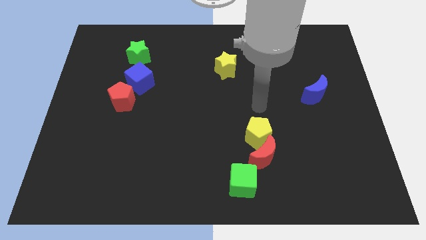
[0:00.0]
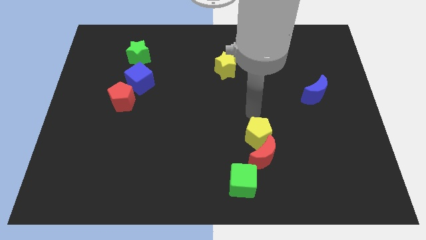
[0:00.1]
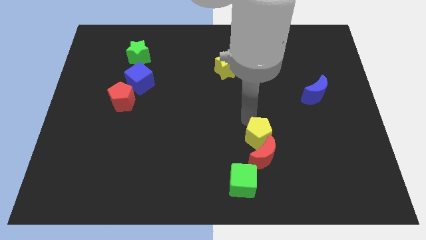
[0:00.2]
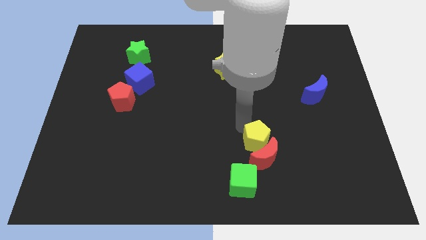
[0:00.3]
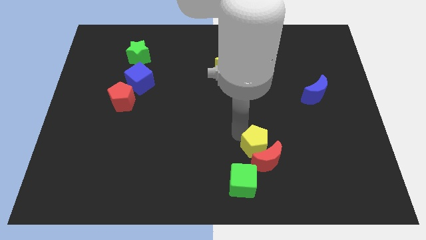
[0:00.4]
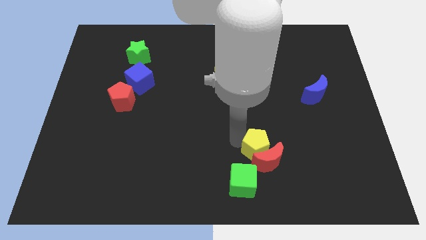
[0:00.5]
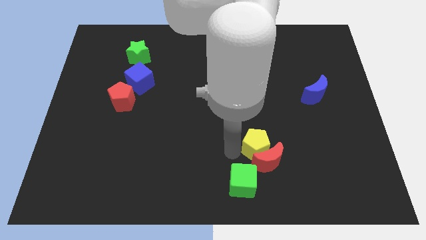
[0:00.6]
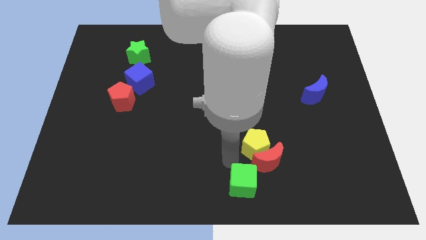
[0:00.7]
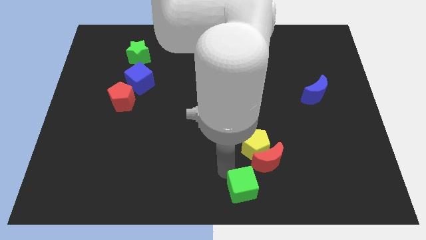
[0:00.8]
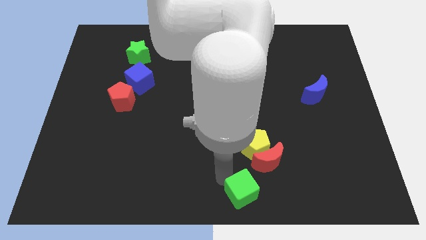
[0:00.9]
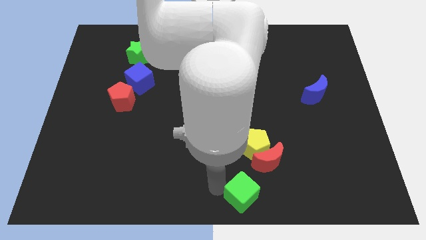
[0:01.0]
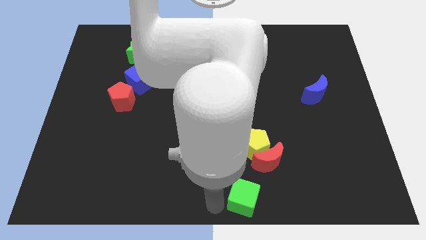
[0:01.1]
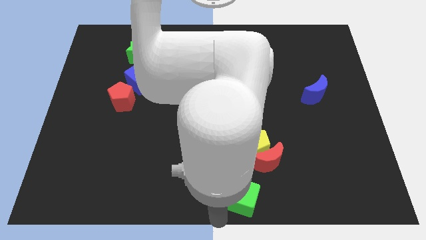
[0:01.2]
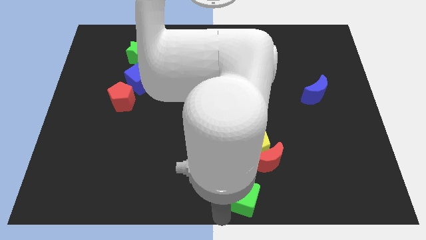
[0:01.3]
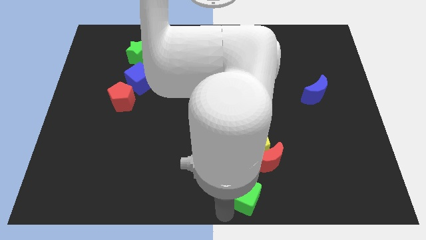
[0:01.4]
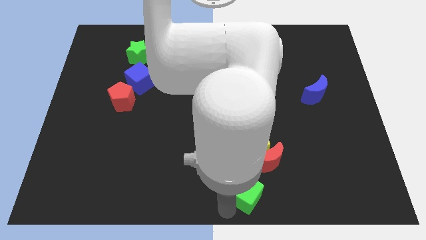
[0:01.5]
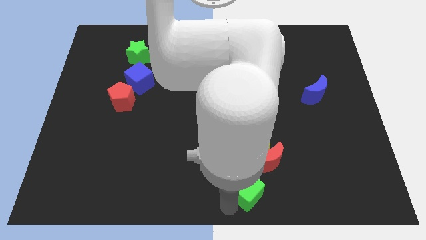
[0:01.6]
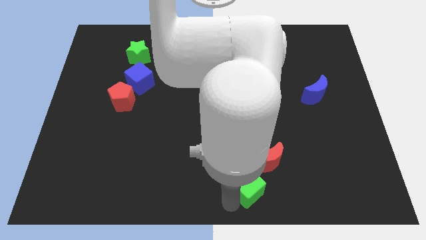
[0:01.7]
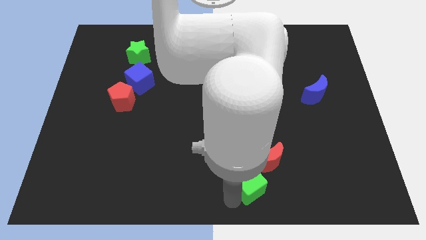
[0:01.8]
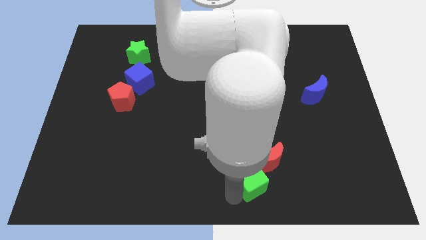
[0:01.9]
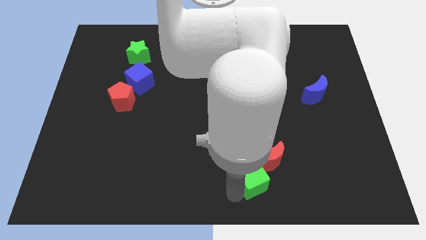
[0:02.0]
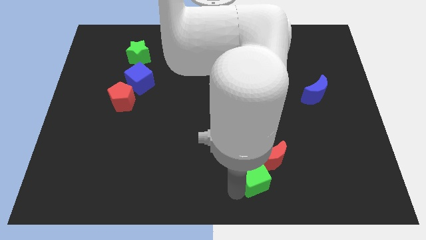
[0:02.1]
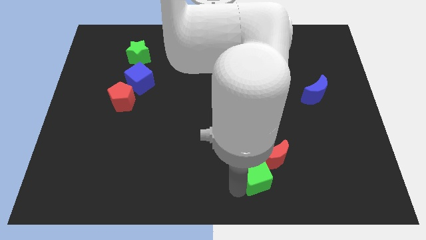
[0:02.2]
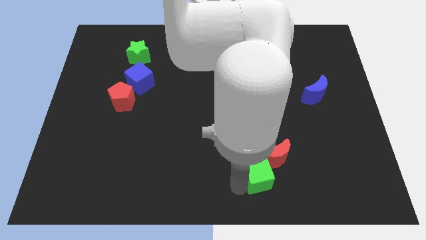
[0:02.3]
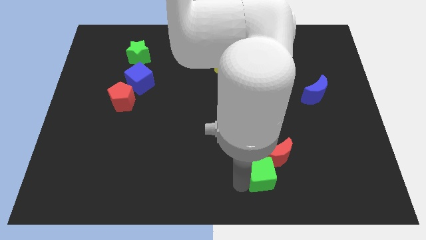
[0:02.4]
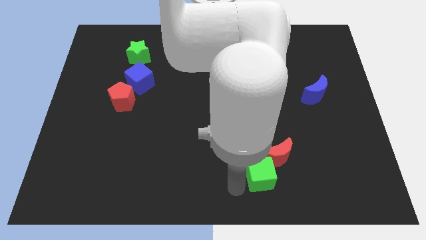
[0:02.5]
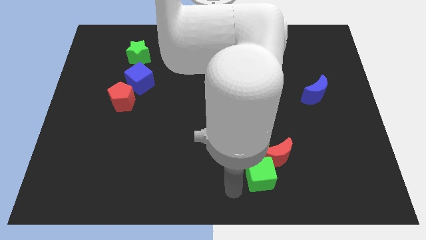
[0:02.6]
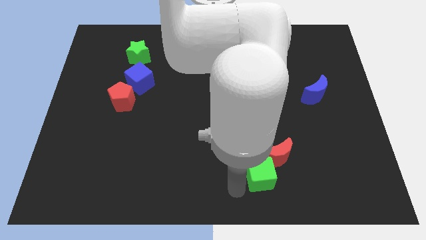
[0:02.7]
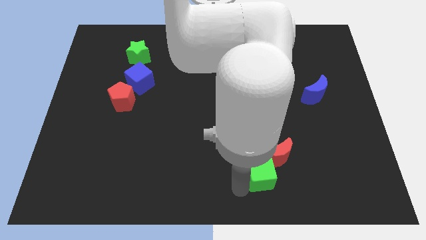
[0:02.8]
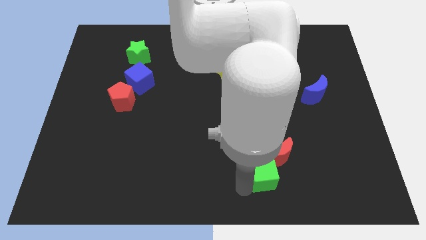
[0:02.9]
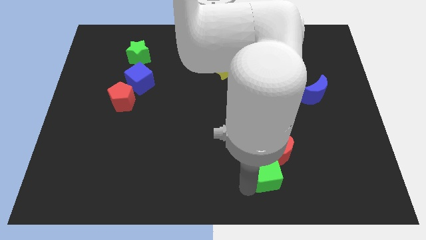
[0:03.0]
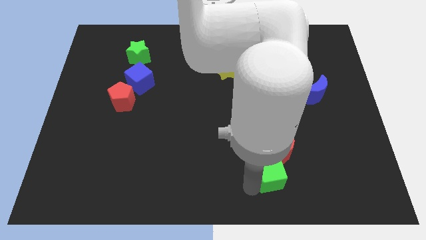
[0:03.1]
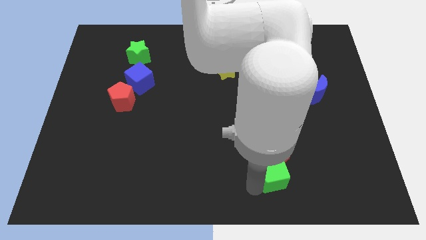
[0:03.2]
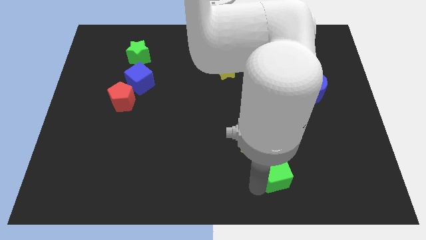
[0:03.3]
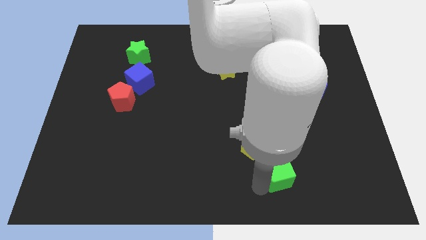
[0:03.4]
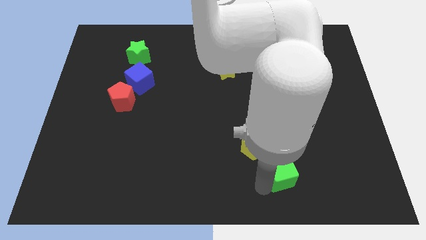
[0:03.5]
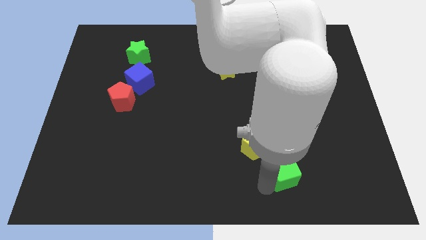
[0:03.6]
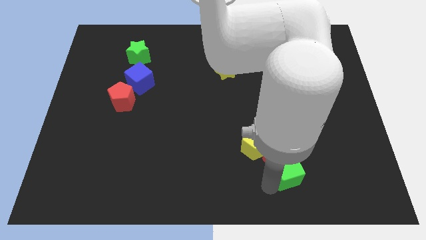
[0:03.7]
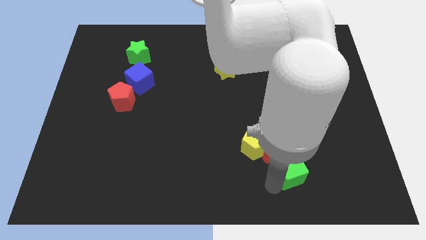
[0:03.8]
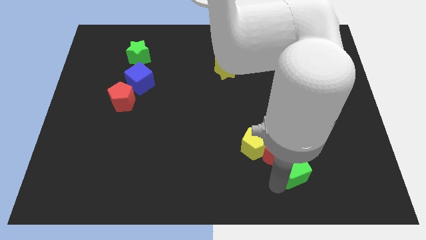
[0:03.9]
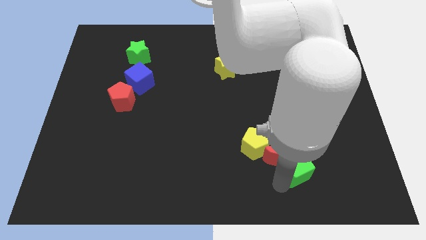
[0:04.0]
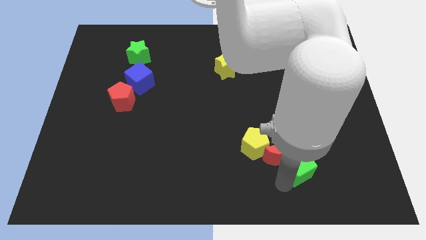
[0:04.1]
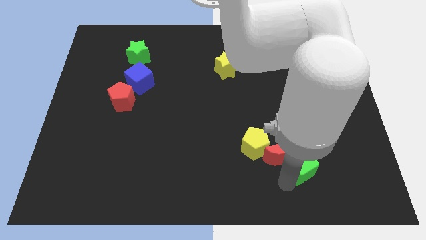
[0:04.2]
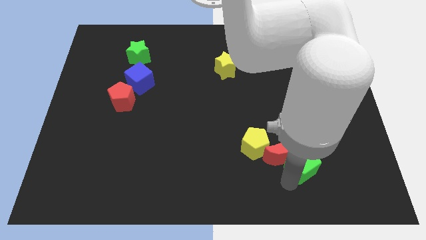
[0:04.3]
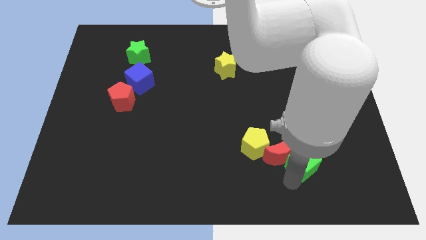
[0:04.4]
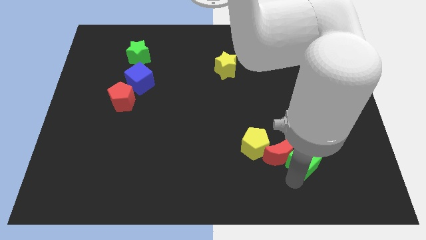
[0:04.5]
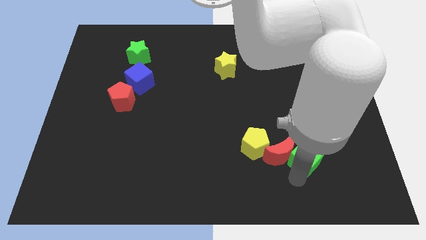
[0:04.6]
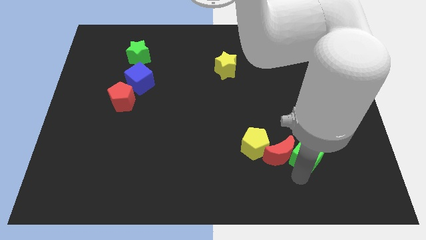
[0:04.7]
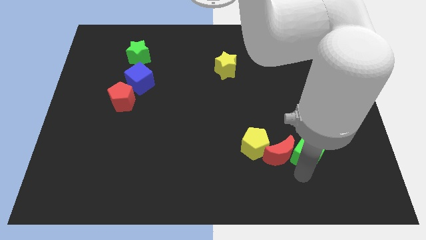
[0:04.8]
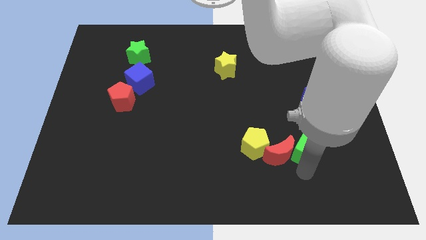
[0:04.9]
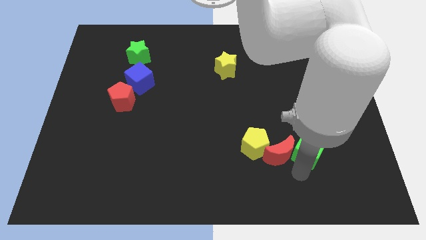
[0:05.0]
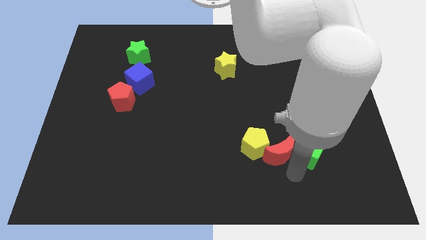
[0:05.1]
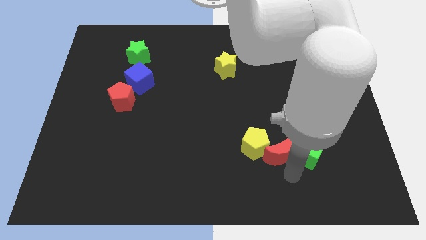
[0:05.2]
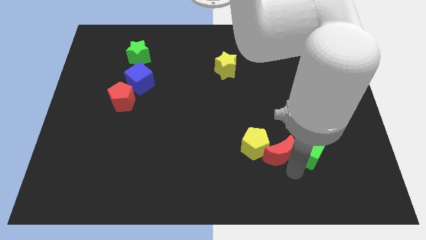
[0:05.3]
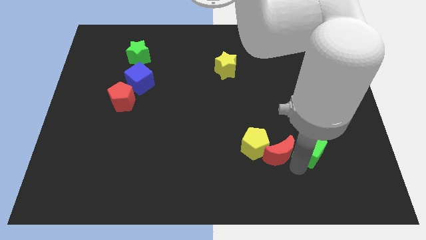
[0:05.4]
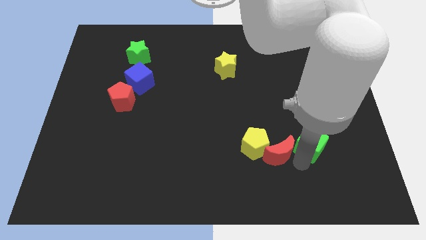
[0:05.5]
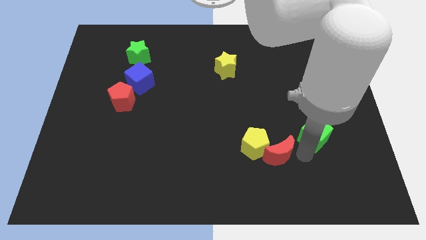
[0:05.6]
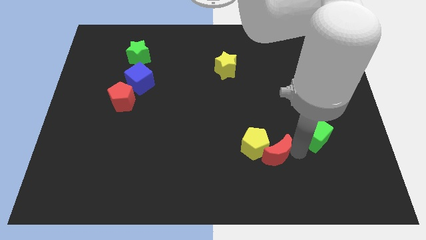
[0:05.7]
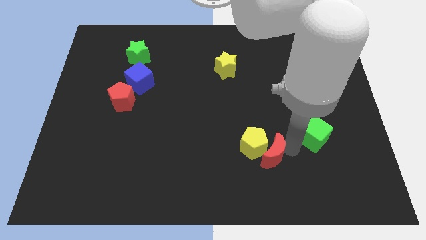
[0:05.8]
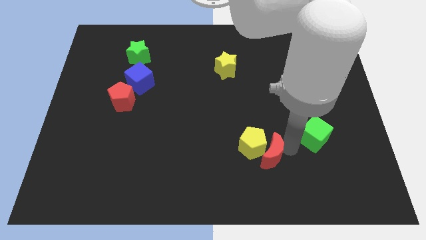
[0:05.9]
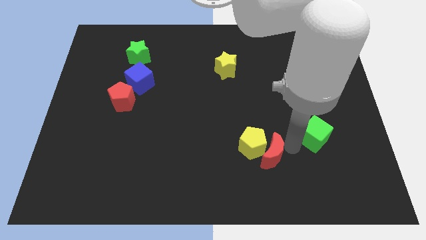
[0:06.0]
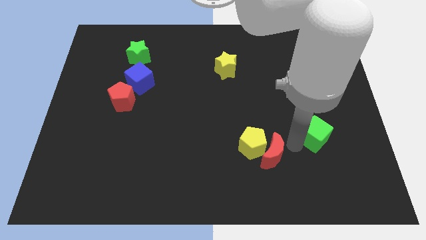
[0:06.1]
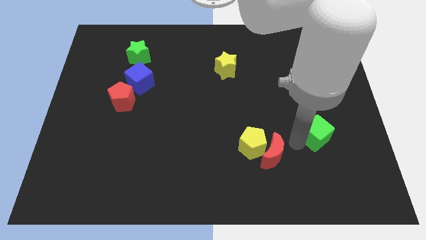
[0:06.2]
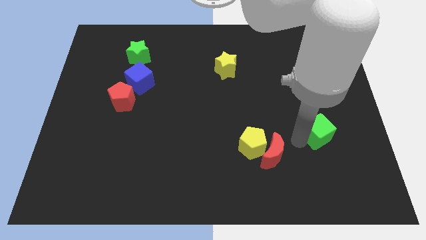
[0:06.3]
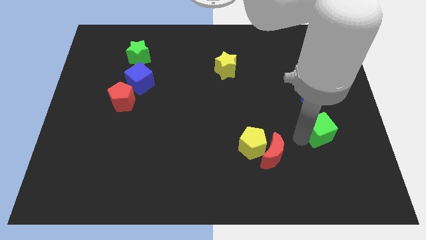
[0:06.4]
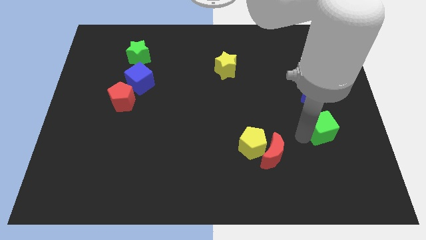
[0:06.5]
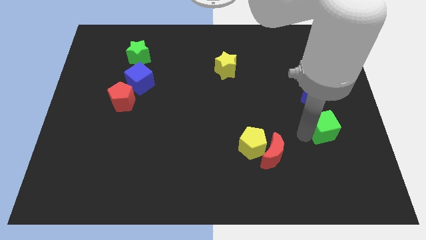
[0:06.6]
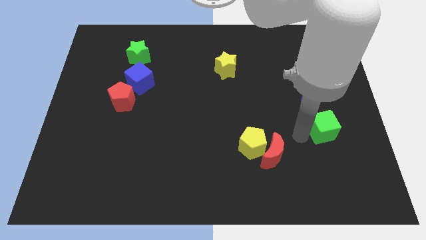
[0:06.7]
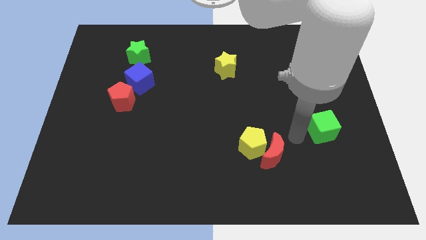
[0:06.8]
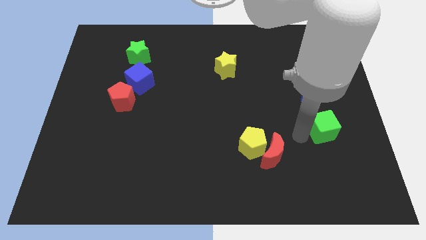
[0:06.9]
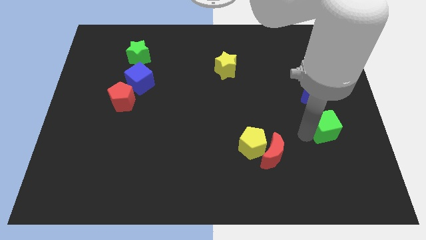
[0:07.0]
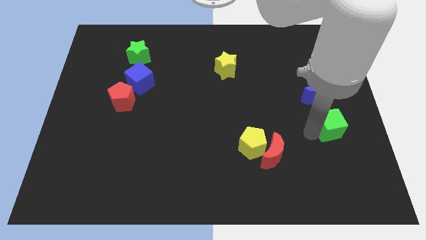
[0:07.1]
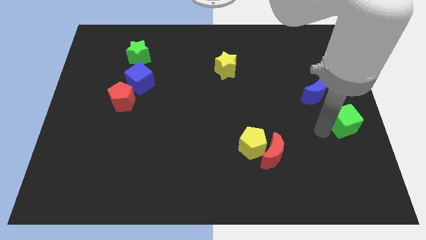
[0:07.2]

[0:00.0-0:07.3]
put the green cube to the center right

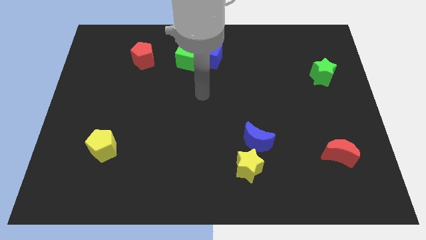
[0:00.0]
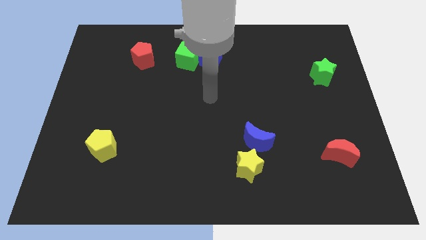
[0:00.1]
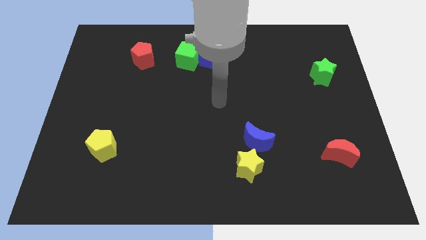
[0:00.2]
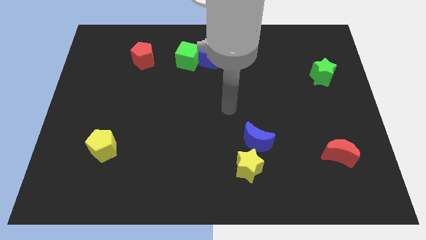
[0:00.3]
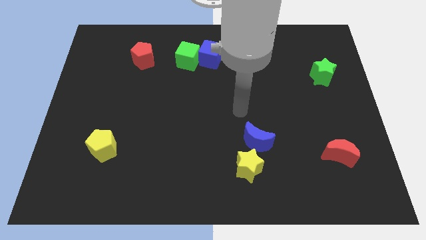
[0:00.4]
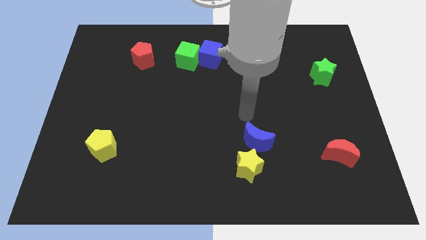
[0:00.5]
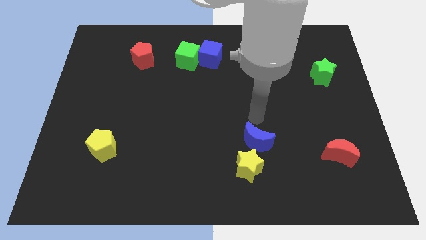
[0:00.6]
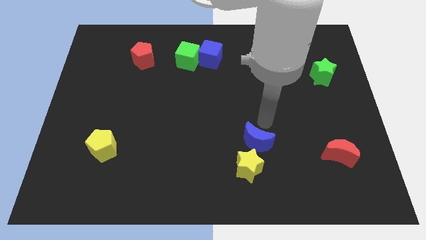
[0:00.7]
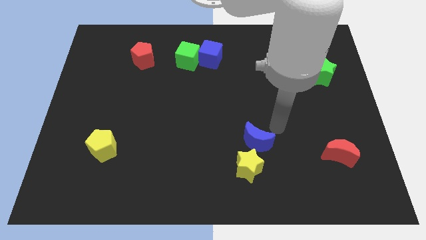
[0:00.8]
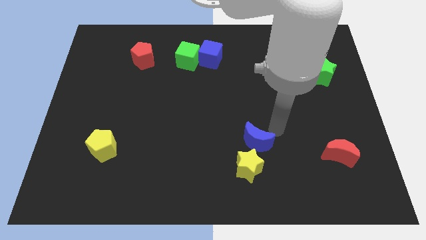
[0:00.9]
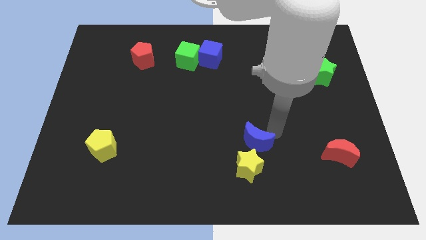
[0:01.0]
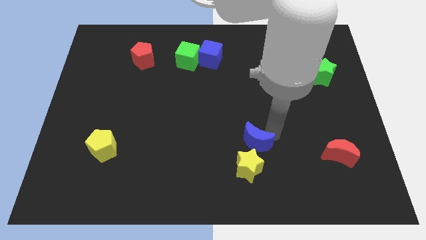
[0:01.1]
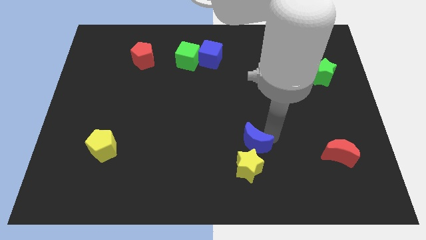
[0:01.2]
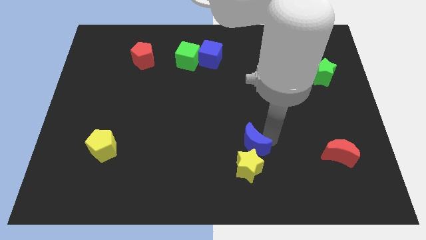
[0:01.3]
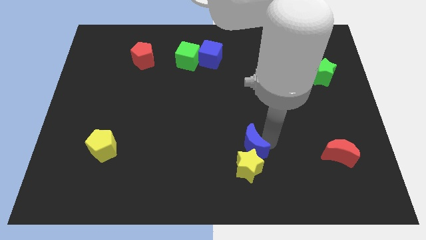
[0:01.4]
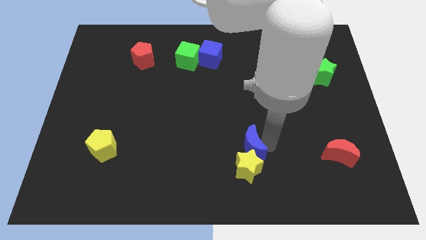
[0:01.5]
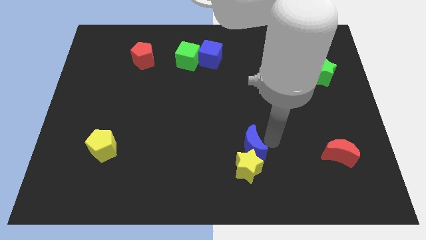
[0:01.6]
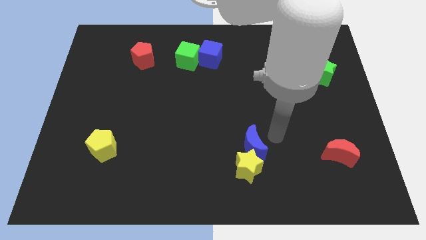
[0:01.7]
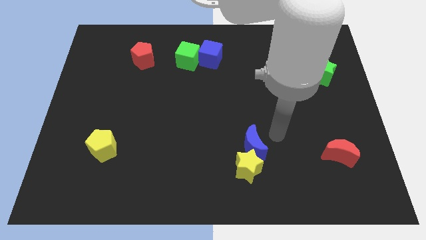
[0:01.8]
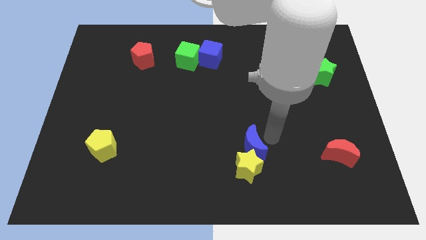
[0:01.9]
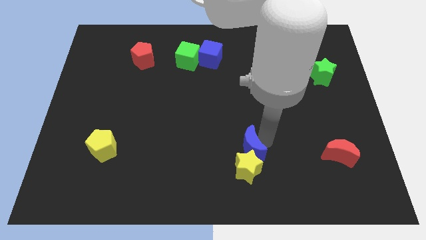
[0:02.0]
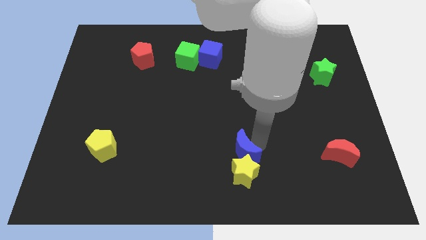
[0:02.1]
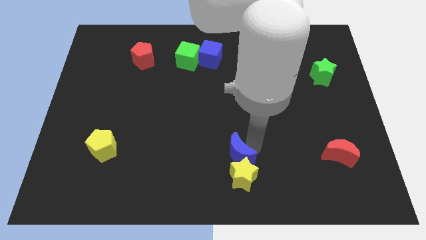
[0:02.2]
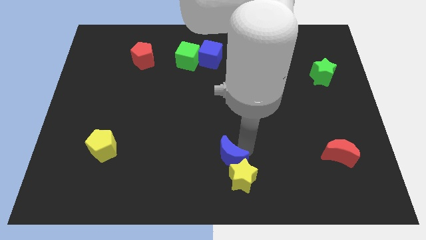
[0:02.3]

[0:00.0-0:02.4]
push the blue moon to the bottom
